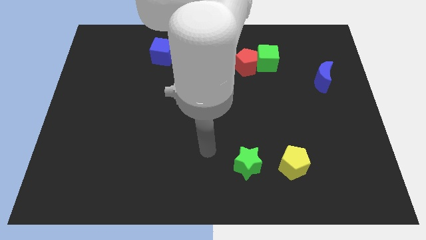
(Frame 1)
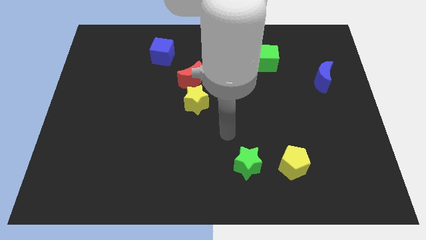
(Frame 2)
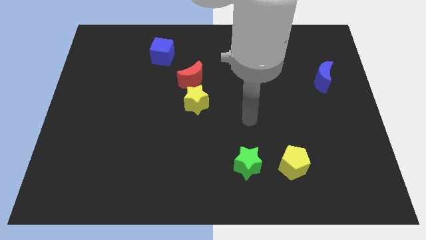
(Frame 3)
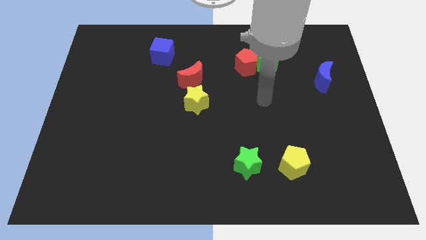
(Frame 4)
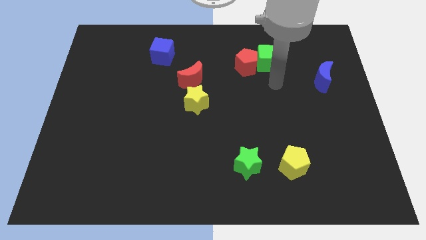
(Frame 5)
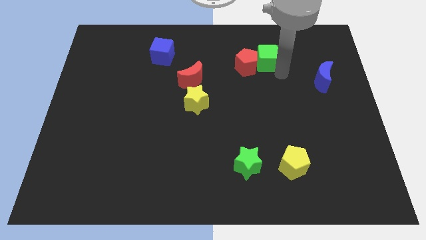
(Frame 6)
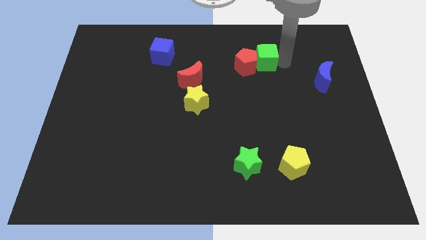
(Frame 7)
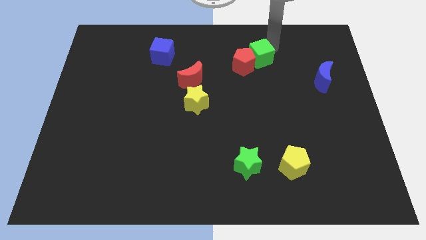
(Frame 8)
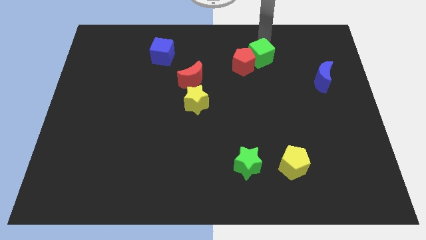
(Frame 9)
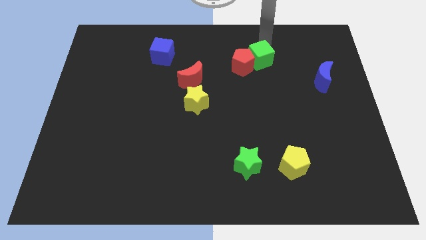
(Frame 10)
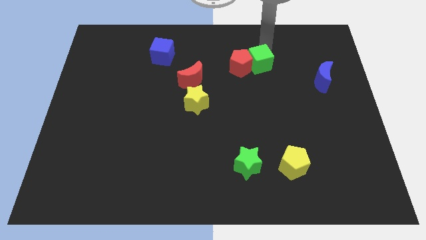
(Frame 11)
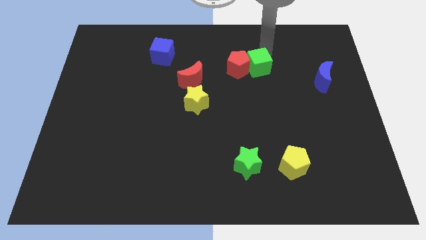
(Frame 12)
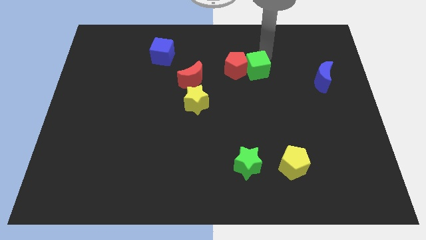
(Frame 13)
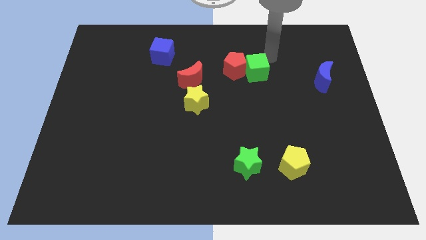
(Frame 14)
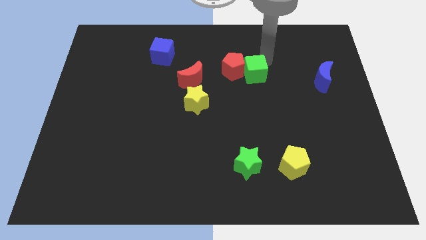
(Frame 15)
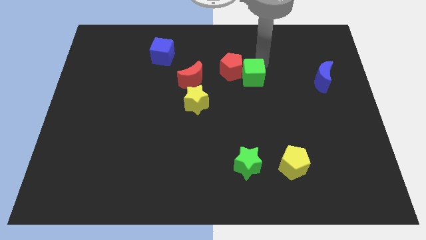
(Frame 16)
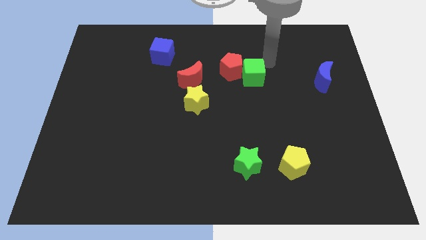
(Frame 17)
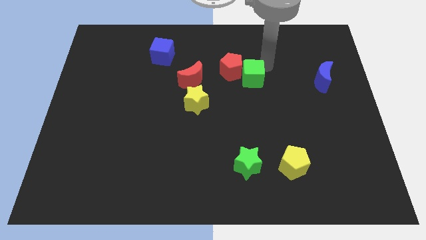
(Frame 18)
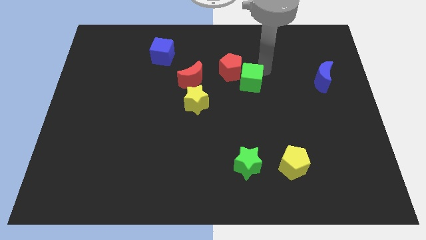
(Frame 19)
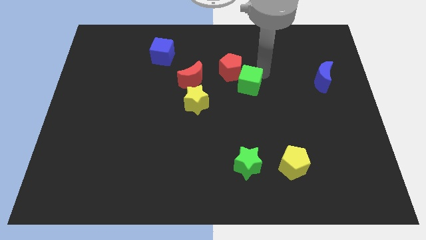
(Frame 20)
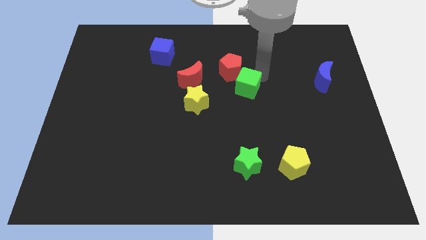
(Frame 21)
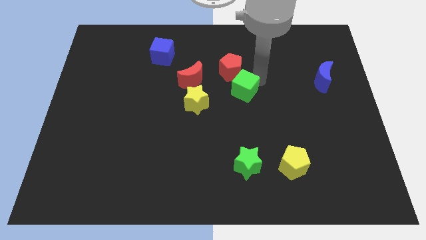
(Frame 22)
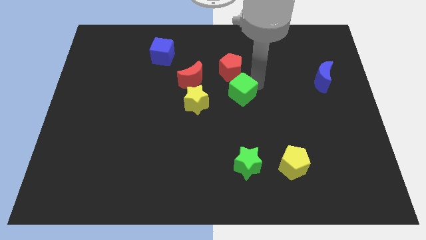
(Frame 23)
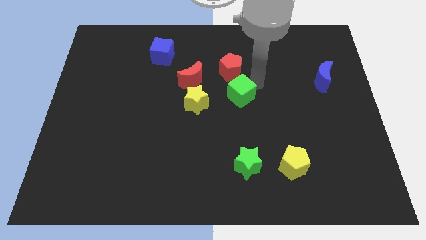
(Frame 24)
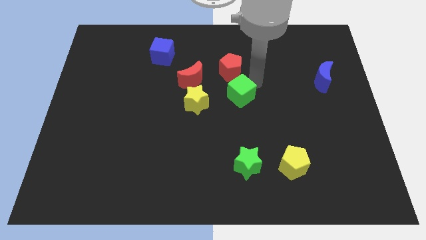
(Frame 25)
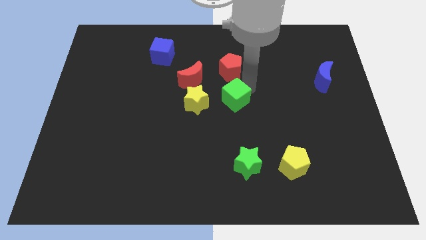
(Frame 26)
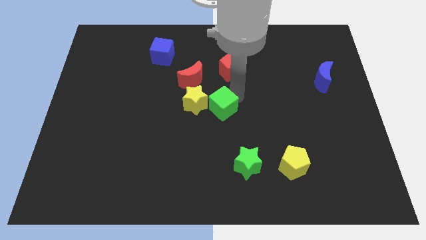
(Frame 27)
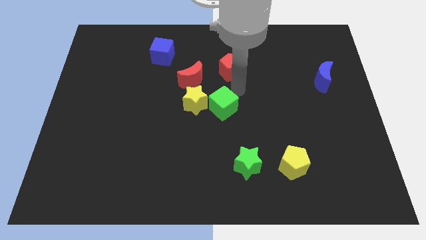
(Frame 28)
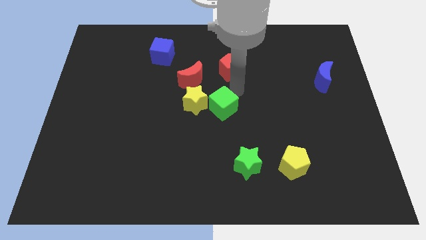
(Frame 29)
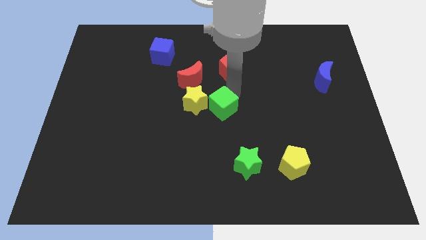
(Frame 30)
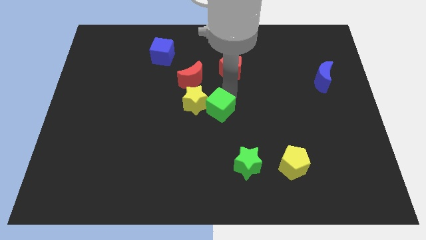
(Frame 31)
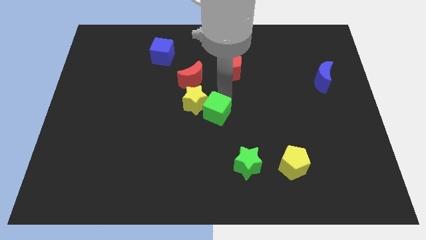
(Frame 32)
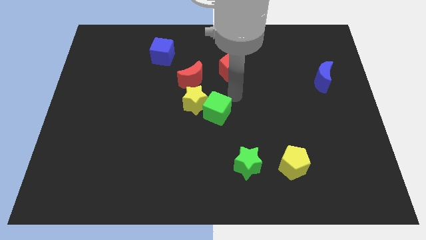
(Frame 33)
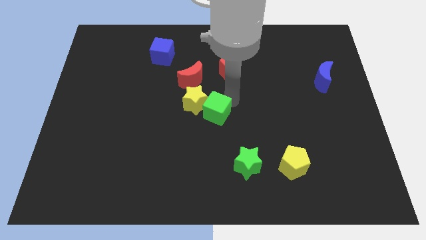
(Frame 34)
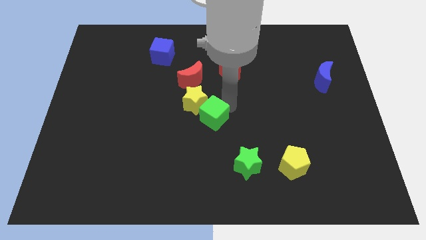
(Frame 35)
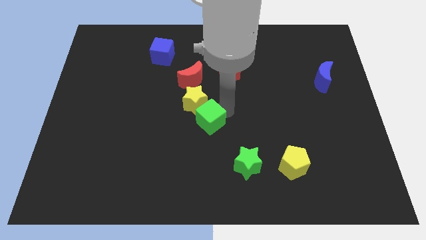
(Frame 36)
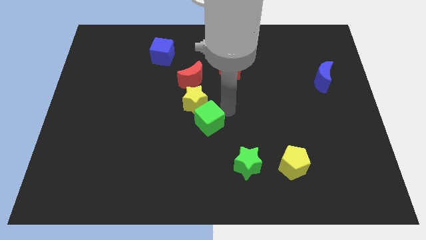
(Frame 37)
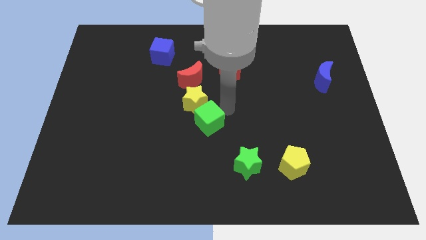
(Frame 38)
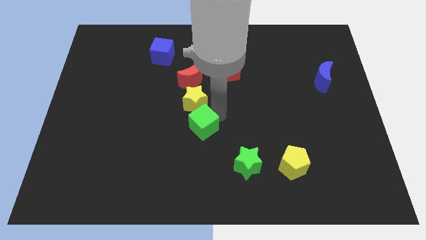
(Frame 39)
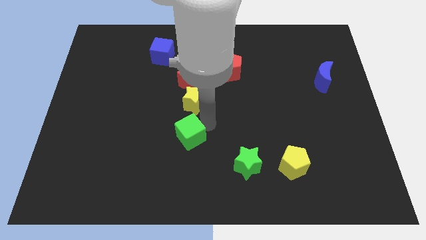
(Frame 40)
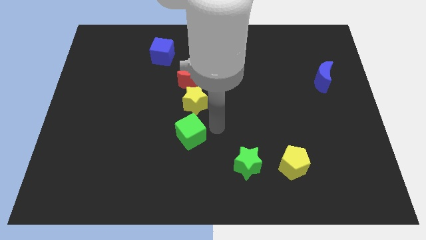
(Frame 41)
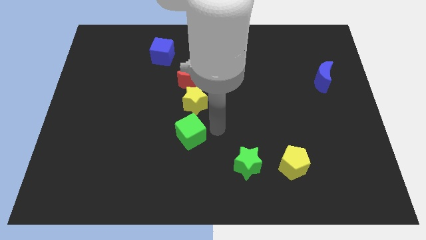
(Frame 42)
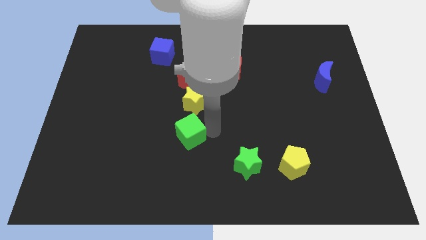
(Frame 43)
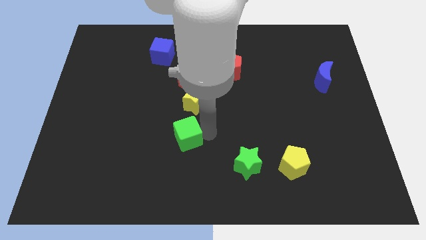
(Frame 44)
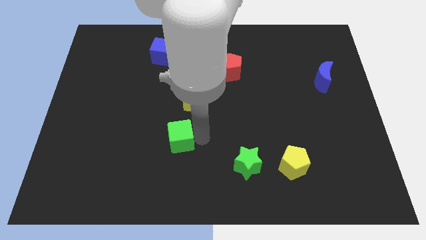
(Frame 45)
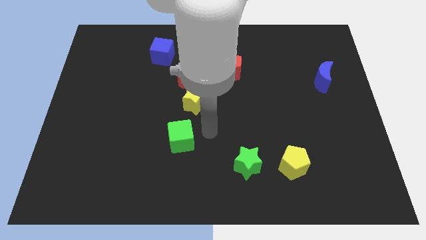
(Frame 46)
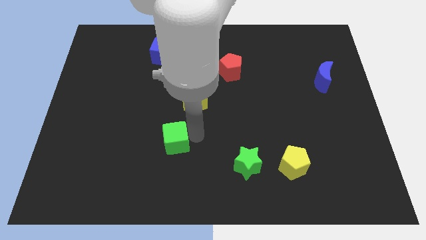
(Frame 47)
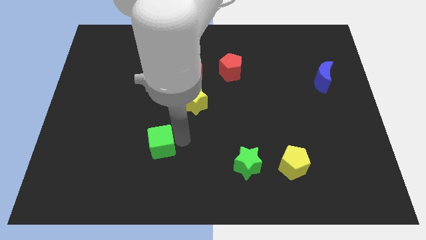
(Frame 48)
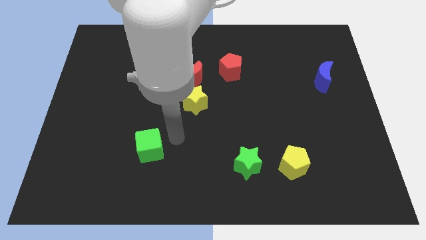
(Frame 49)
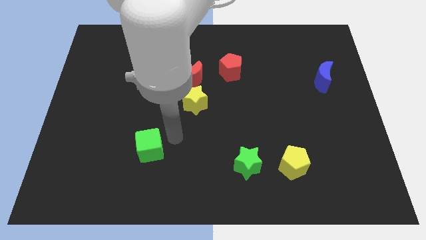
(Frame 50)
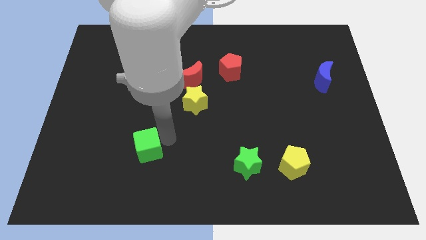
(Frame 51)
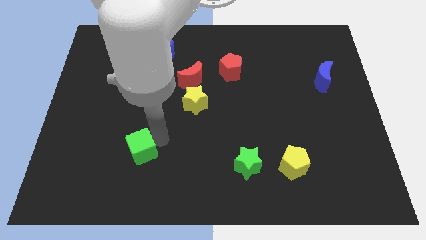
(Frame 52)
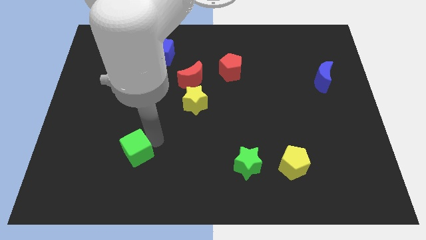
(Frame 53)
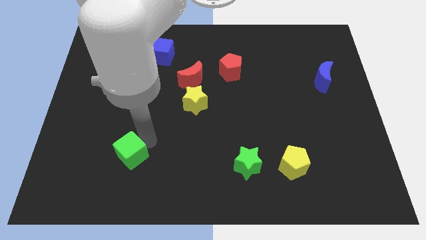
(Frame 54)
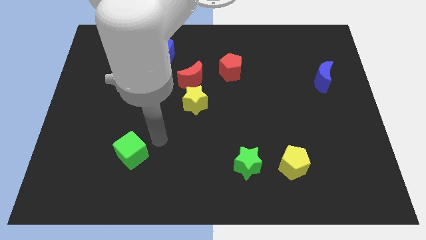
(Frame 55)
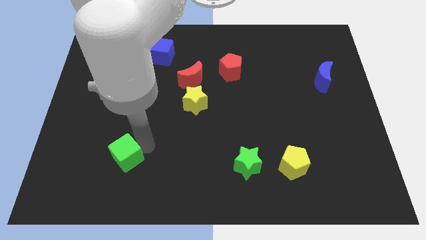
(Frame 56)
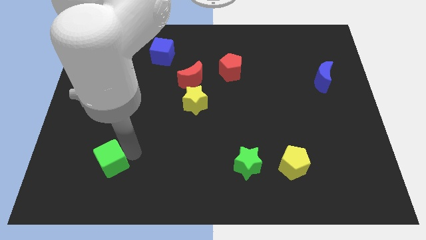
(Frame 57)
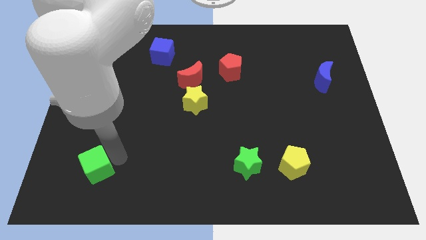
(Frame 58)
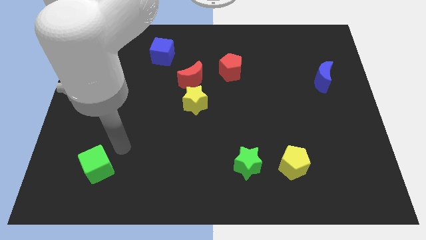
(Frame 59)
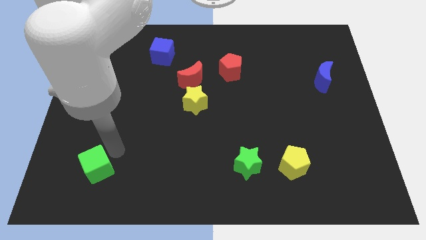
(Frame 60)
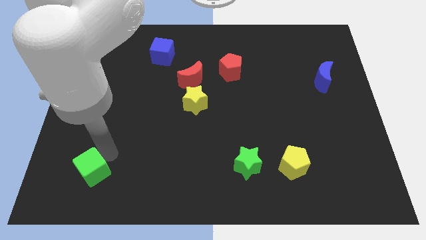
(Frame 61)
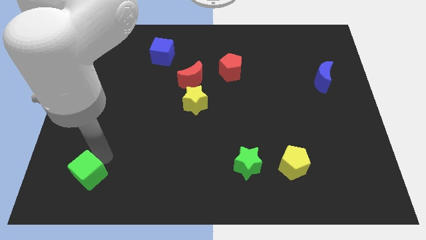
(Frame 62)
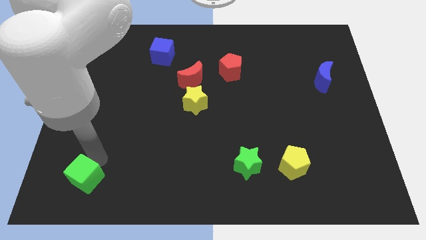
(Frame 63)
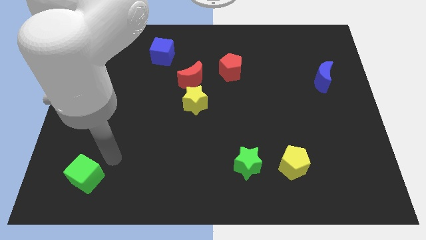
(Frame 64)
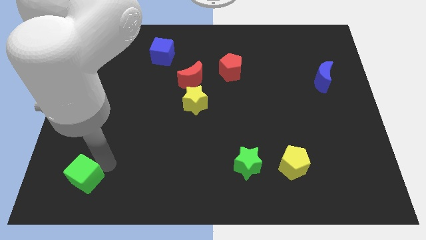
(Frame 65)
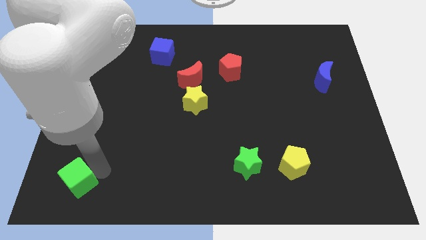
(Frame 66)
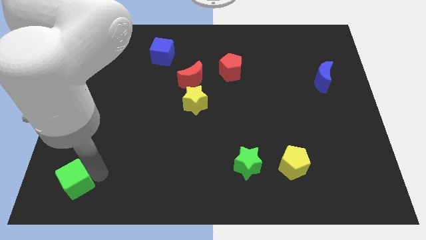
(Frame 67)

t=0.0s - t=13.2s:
put the green cube to the bottom left corner
